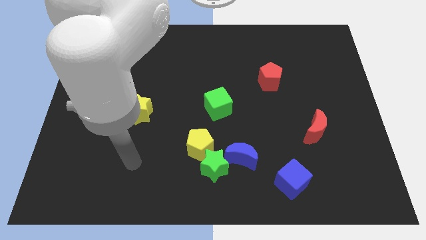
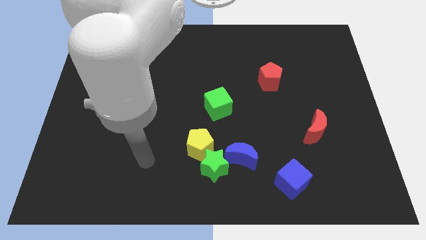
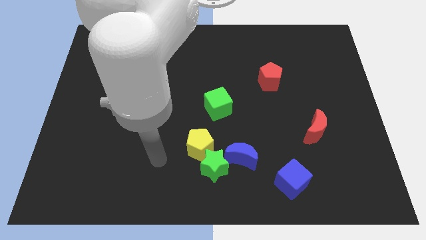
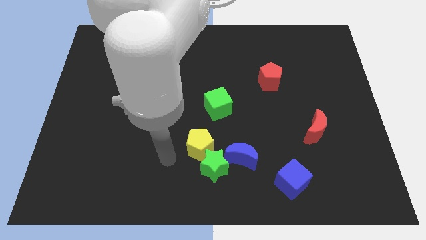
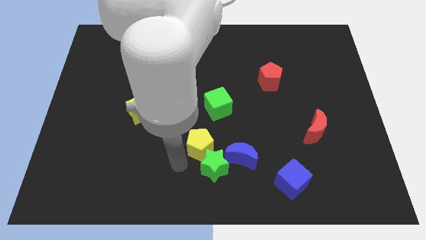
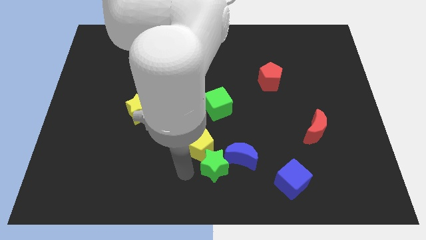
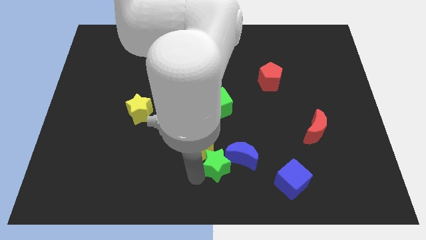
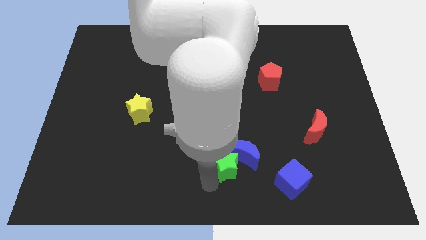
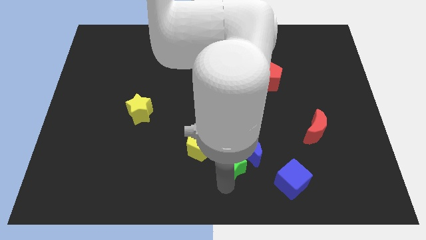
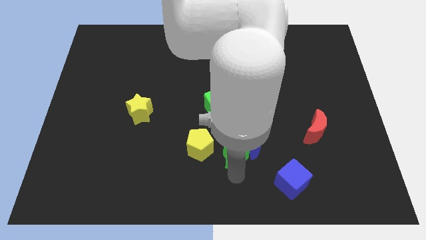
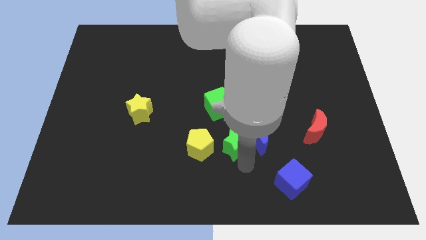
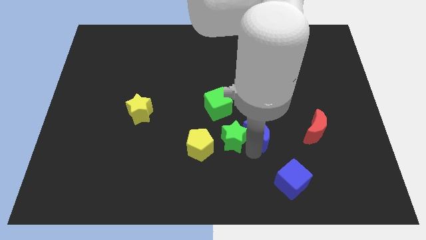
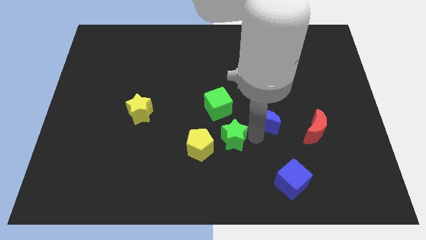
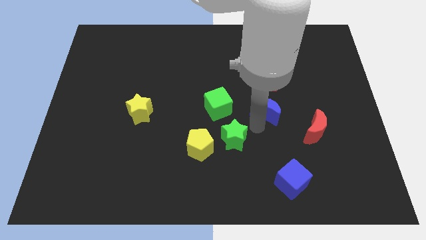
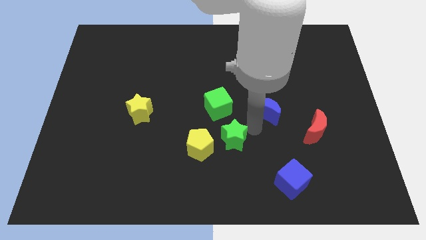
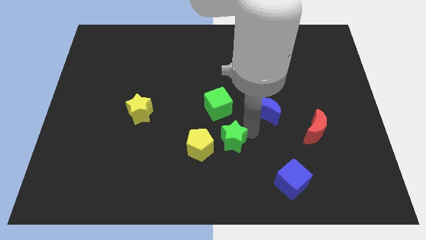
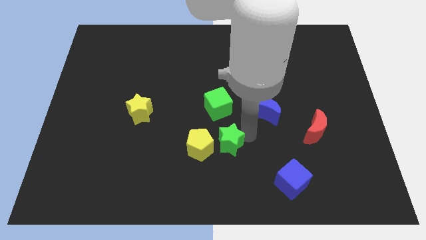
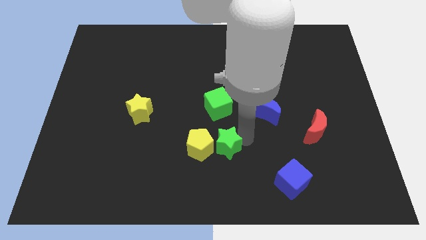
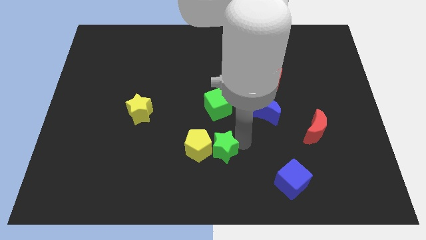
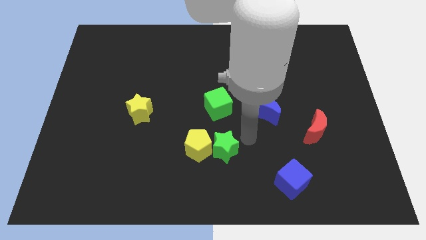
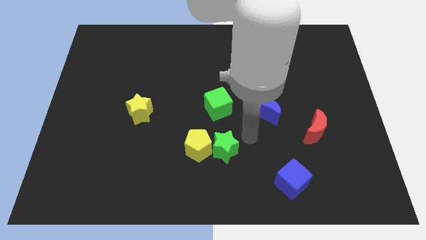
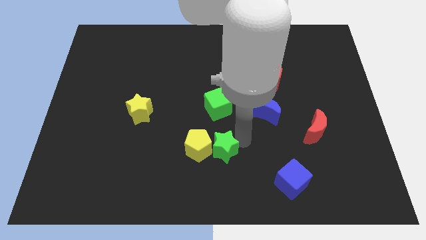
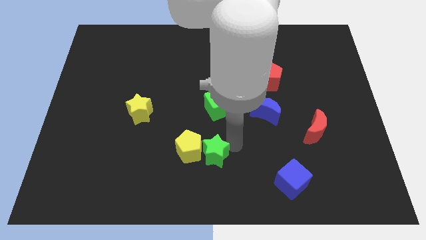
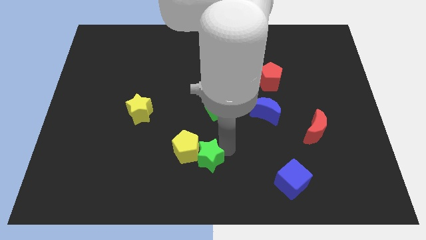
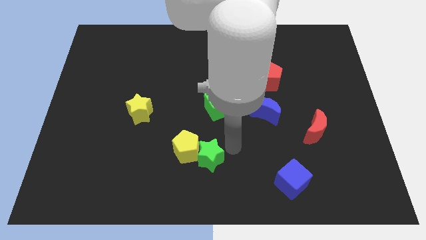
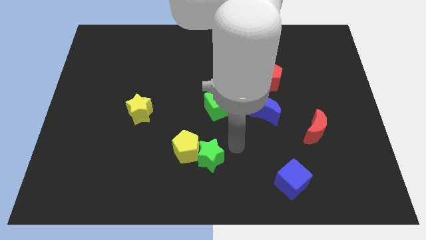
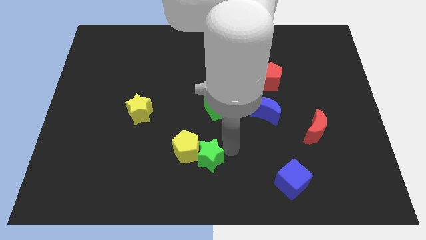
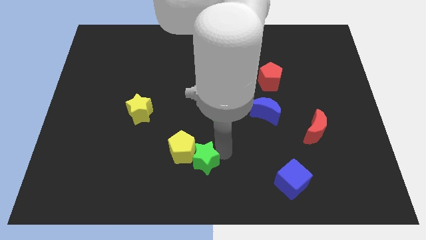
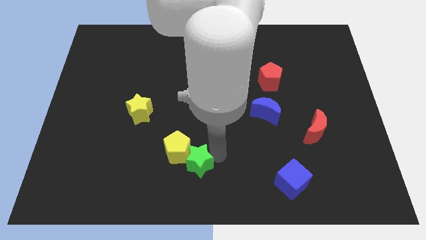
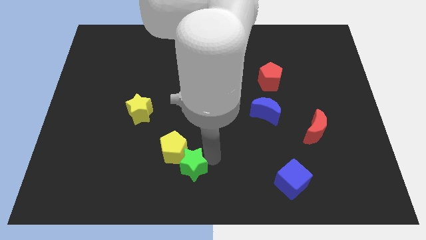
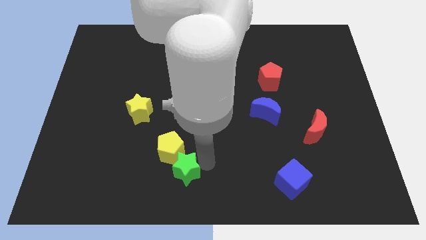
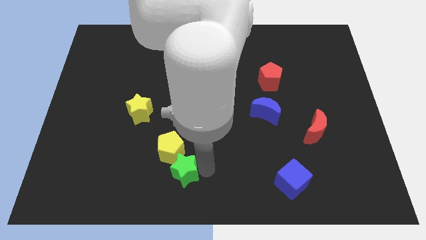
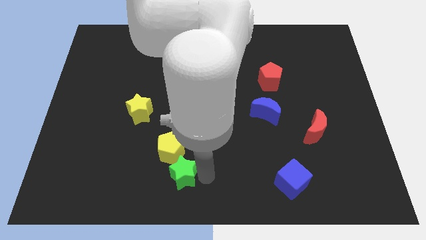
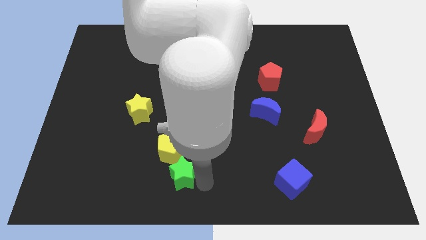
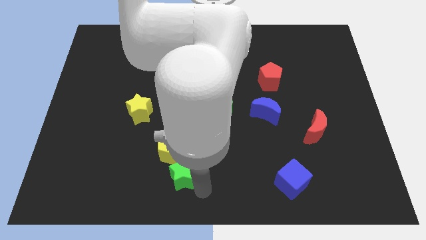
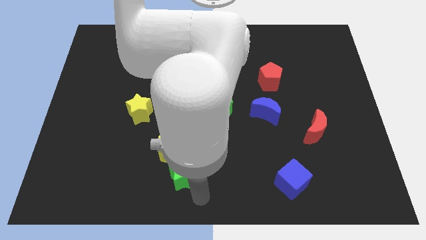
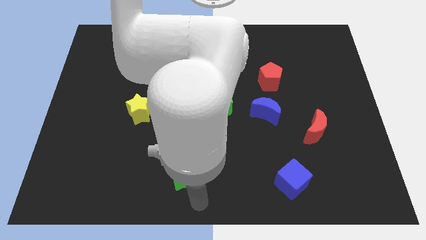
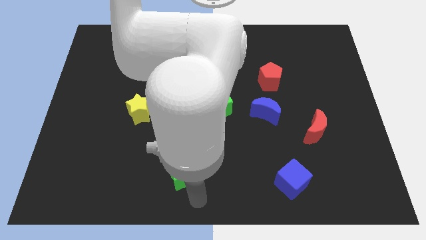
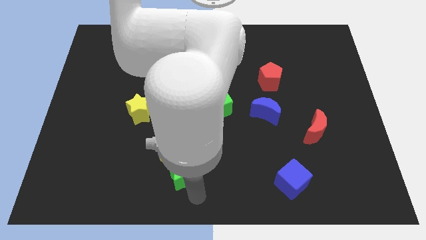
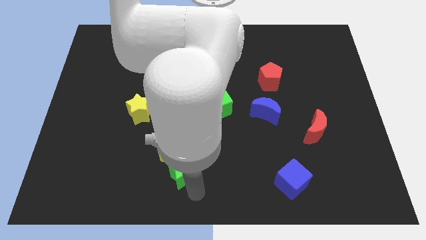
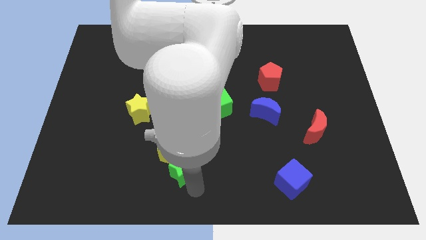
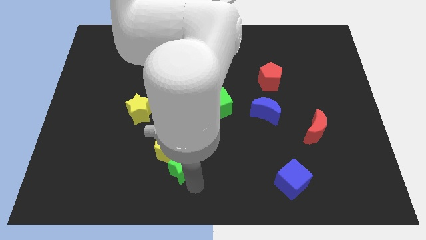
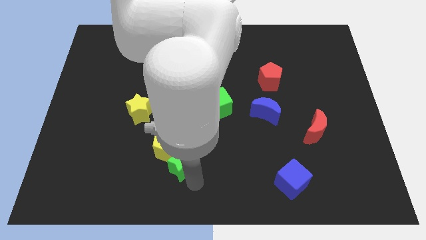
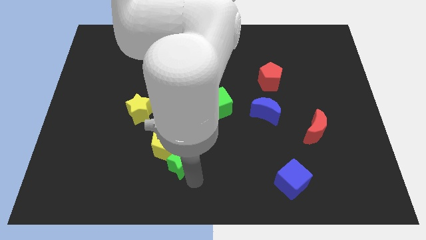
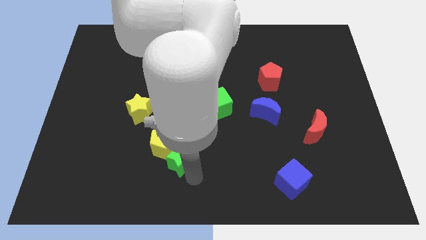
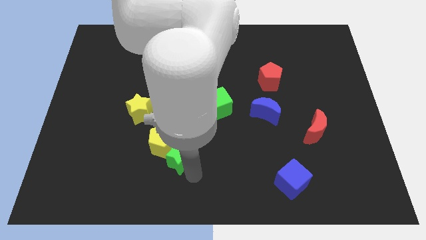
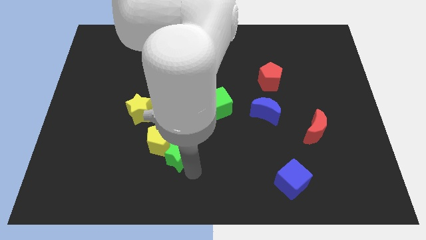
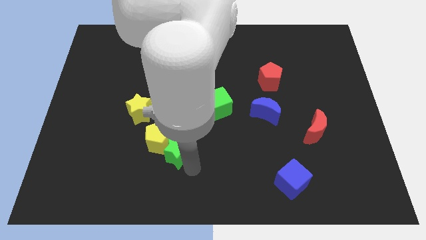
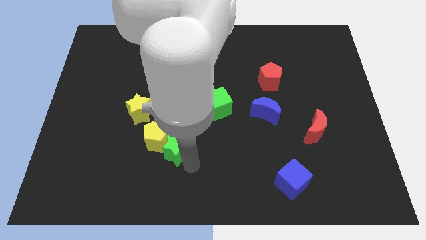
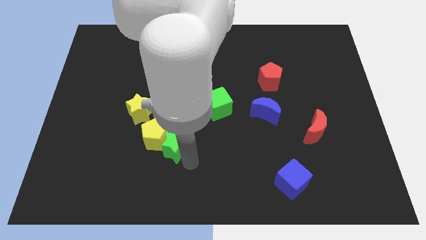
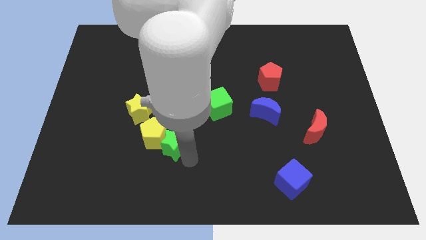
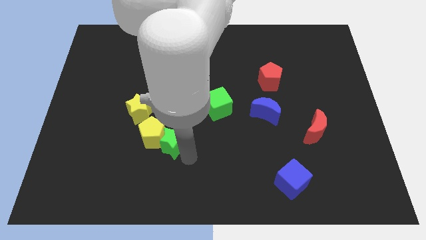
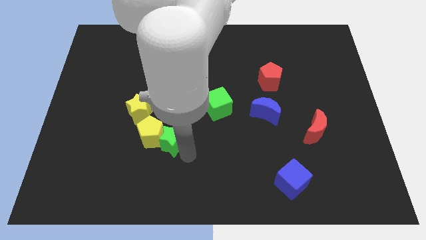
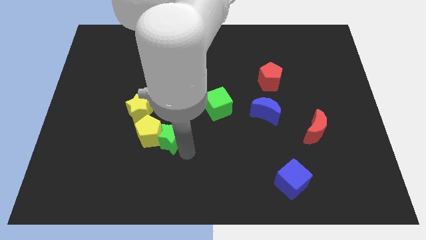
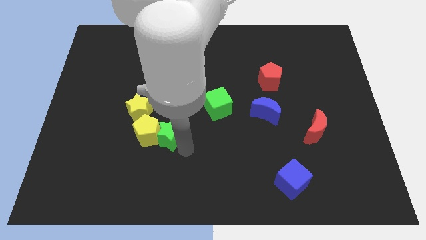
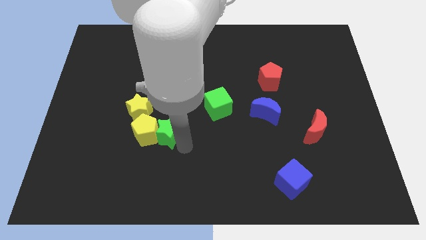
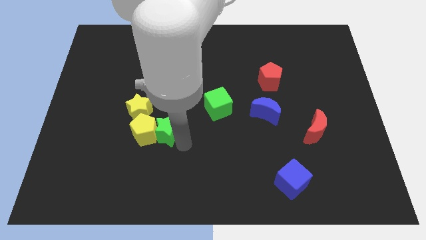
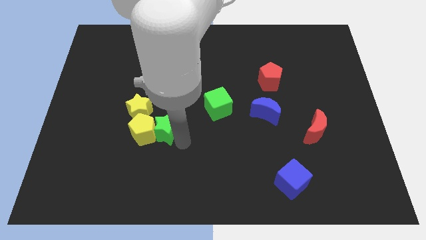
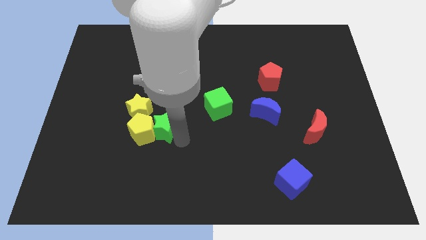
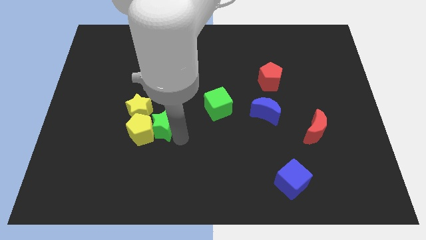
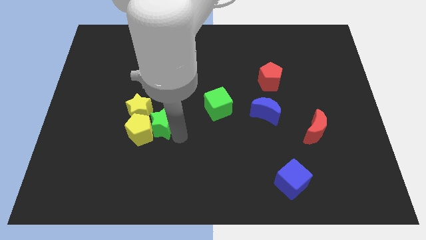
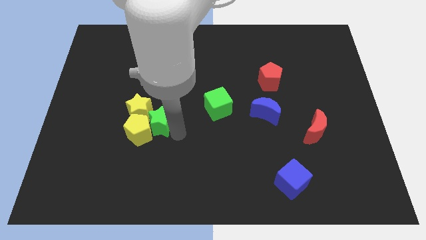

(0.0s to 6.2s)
push the green star close to the yellow star

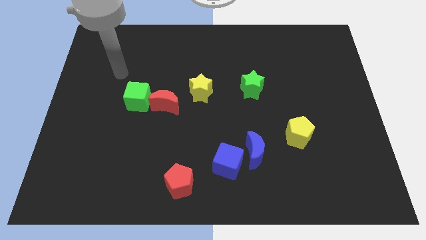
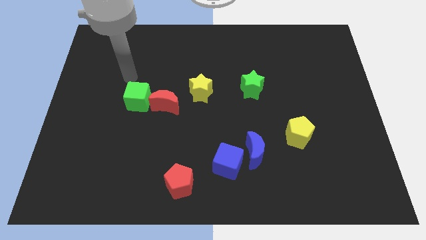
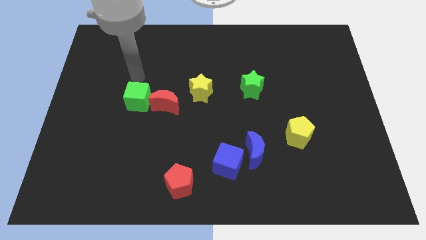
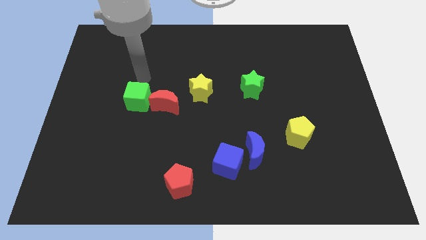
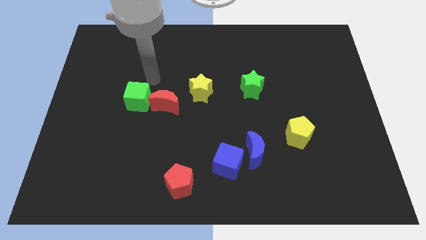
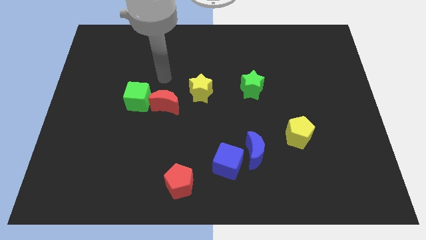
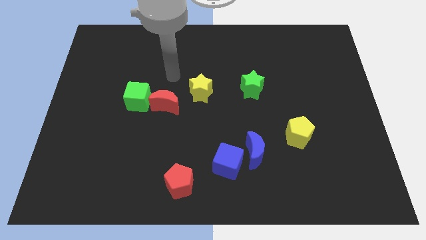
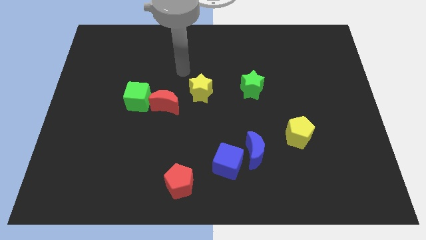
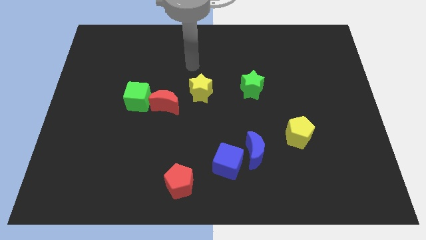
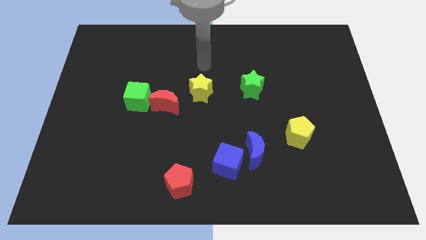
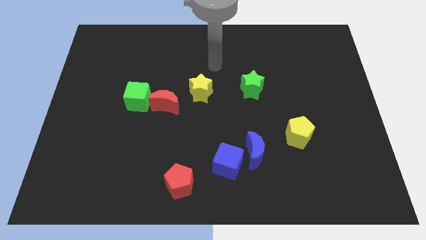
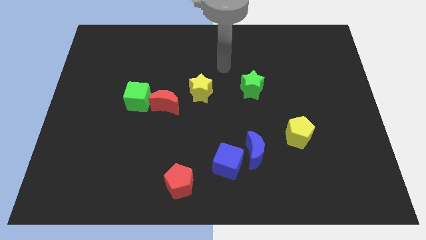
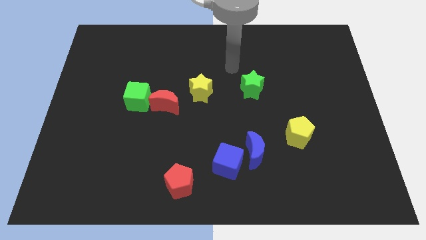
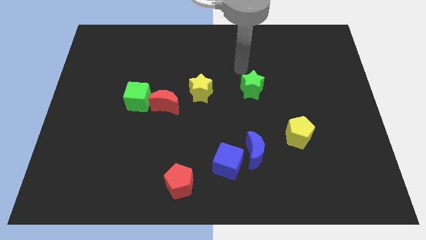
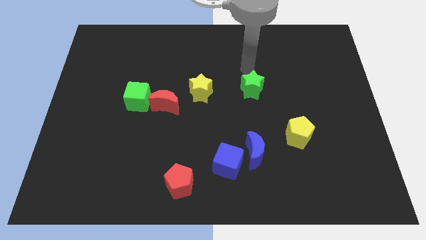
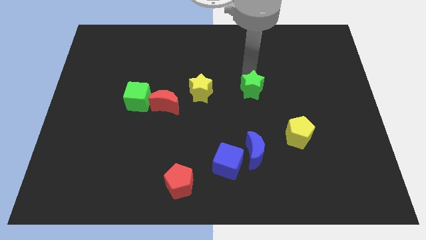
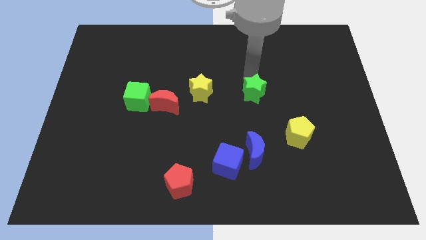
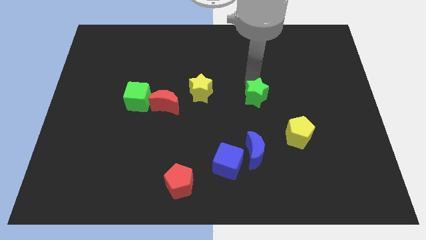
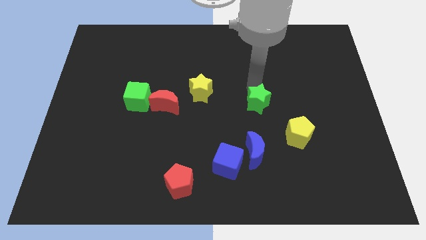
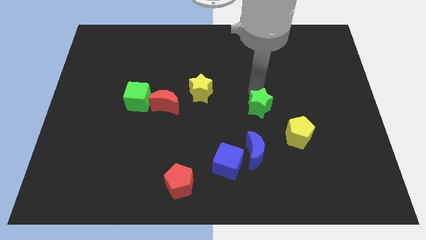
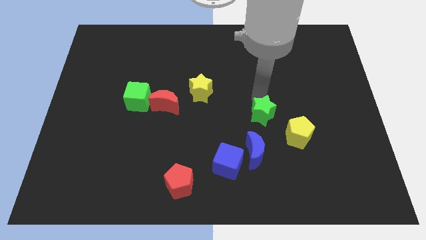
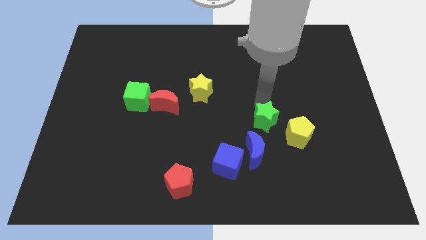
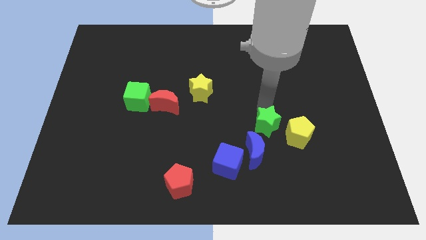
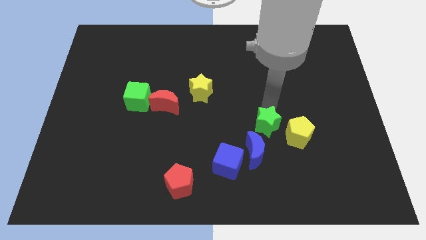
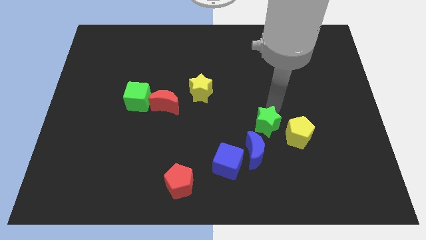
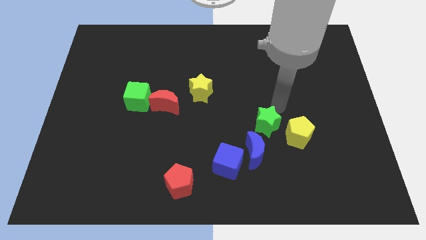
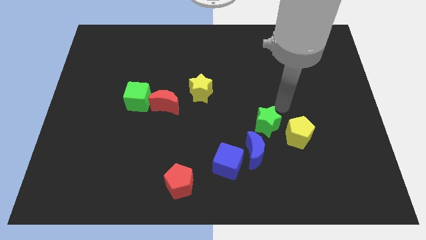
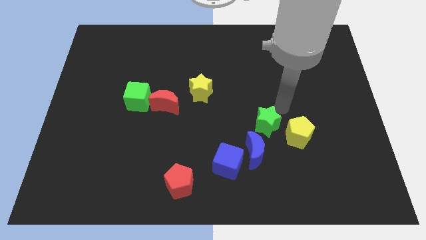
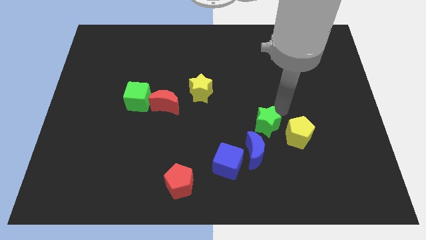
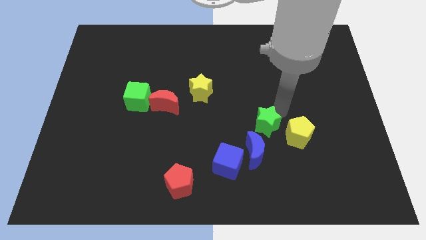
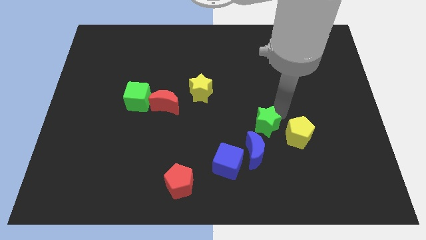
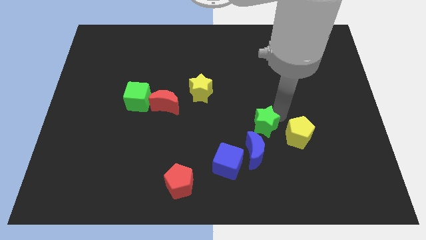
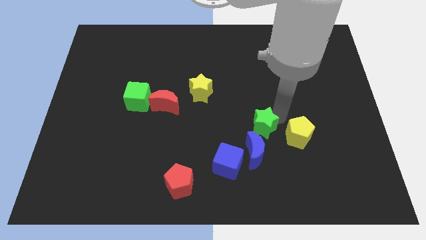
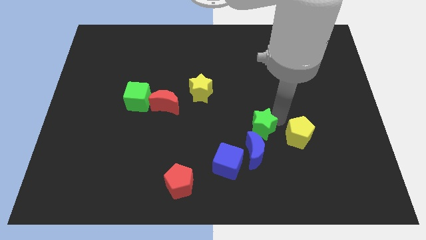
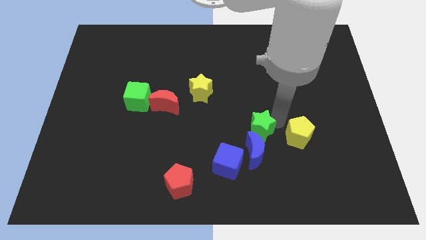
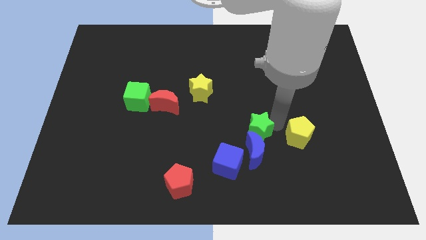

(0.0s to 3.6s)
move the green star to the blue moon
